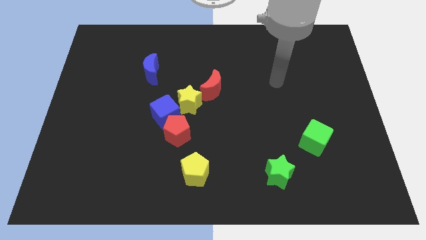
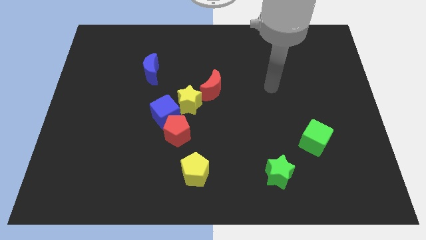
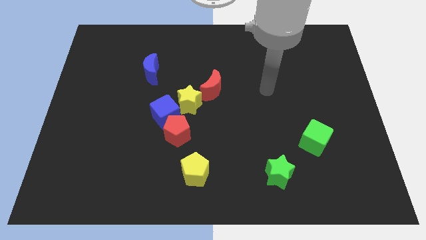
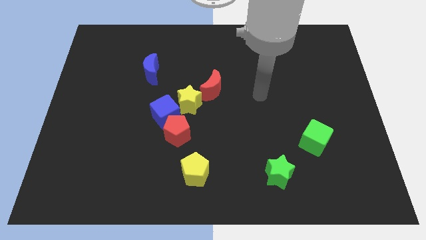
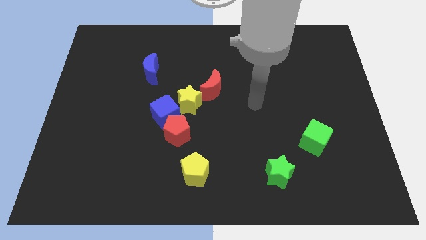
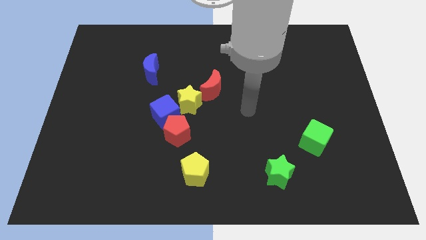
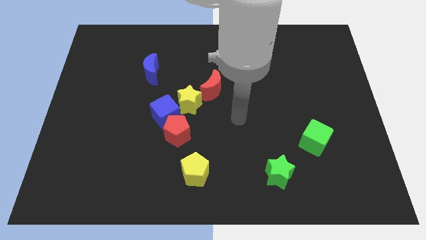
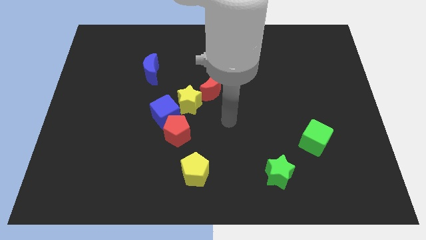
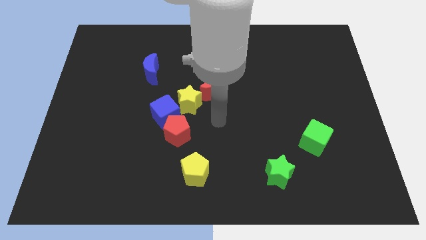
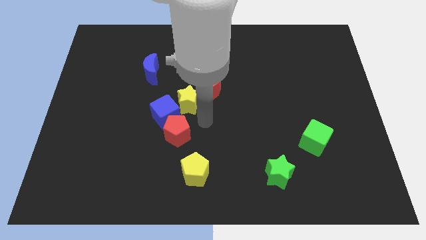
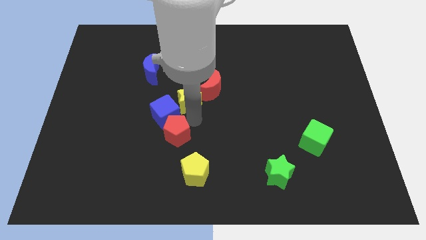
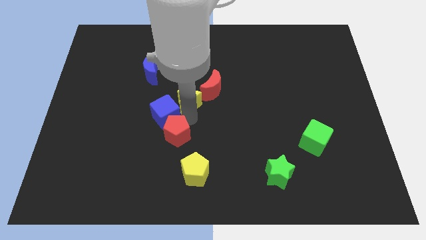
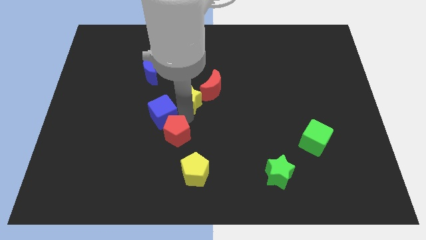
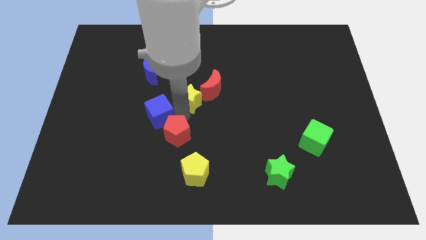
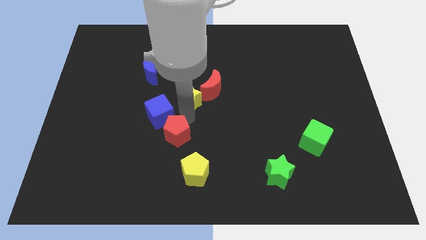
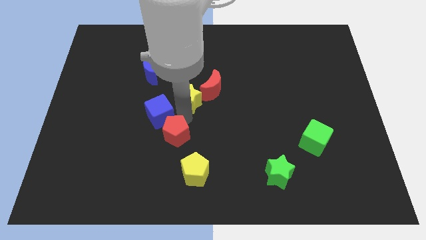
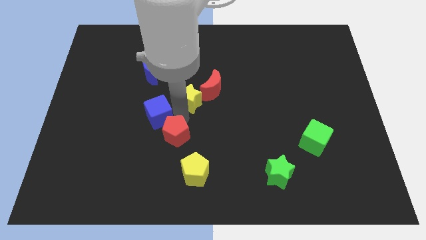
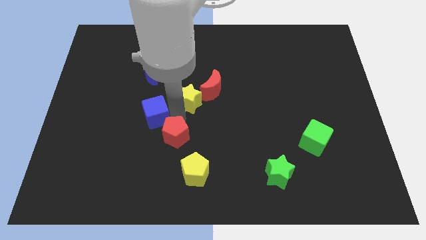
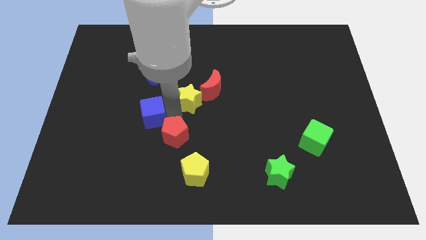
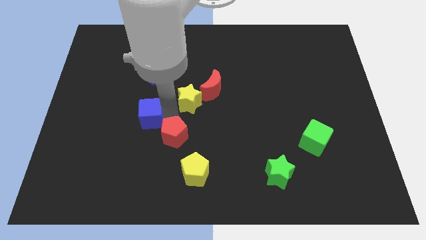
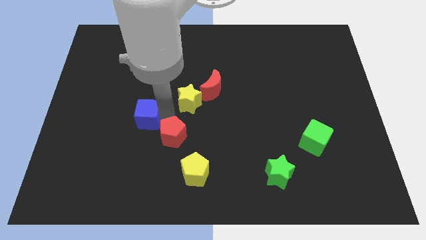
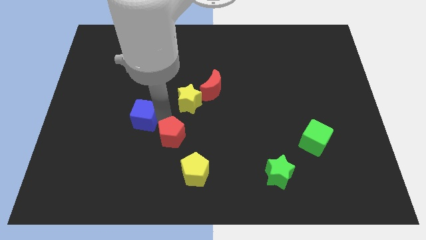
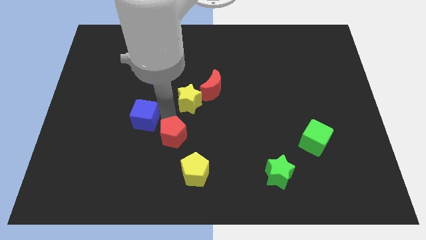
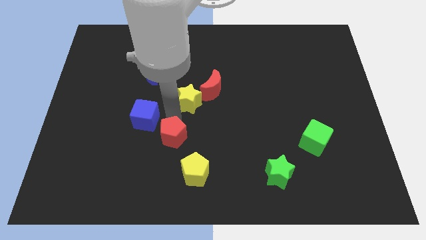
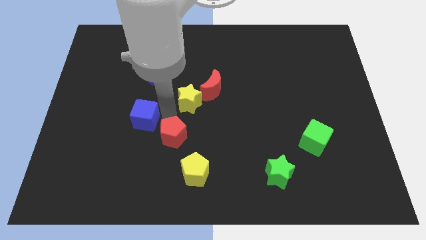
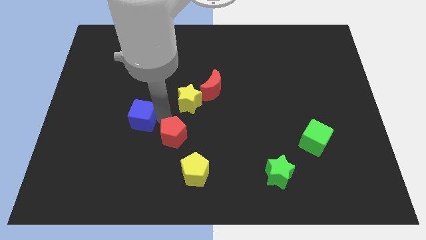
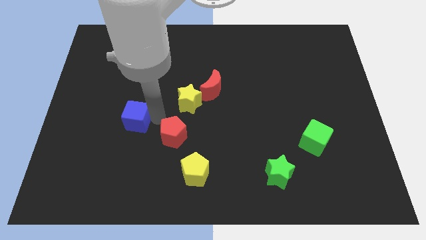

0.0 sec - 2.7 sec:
move the blue cube away from the red pentagon and yellow star

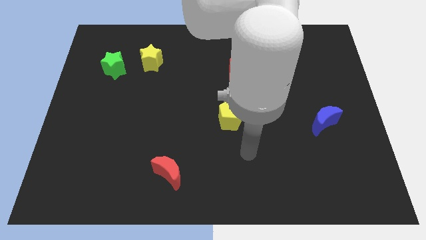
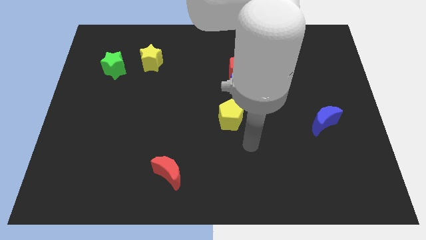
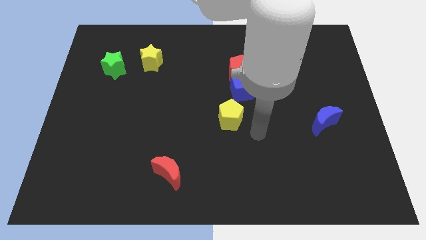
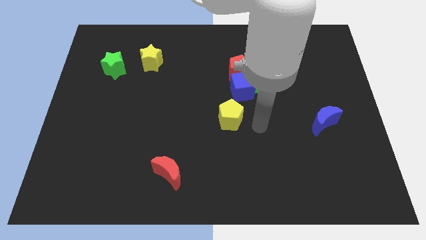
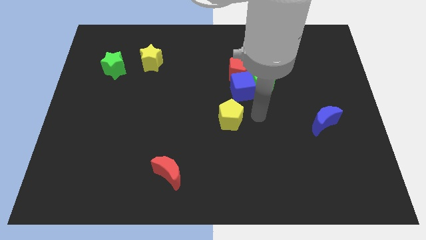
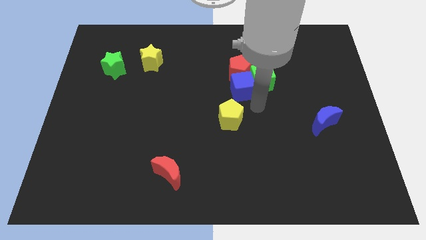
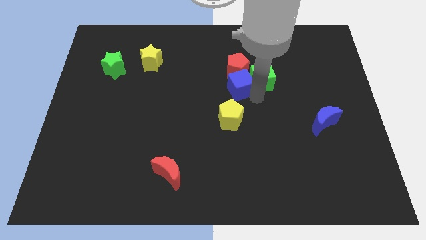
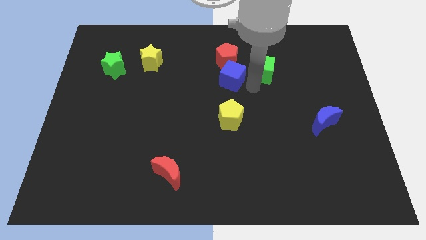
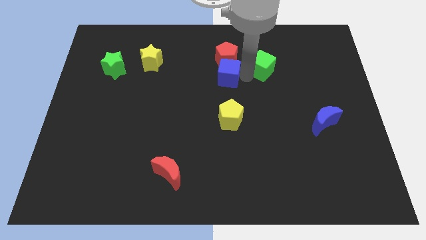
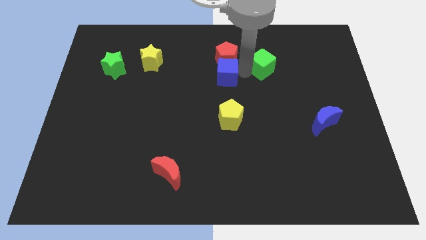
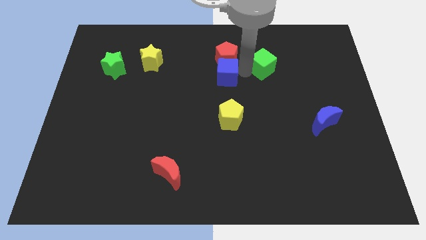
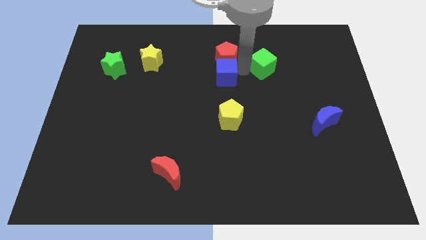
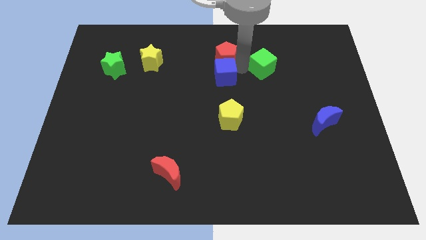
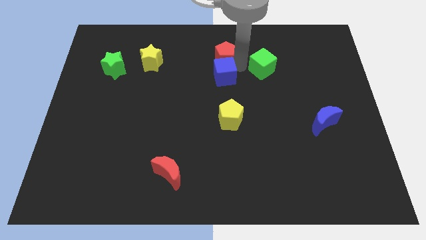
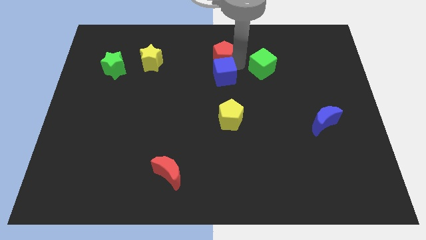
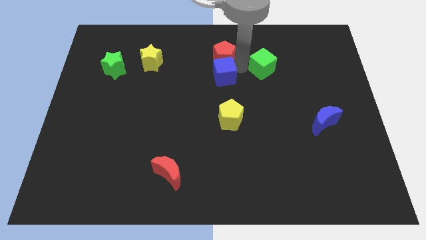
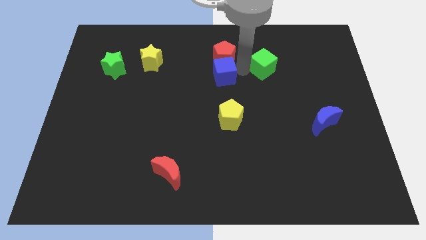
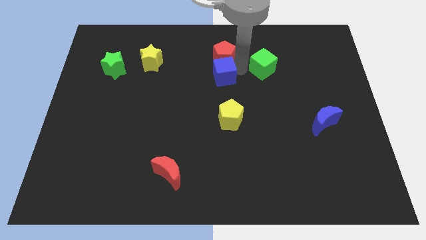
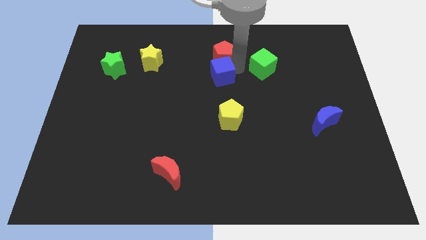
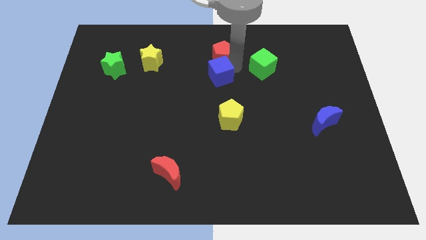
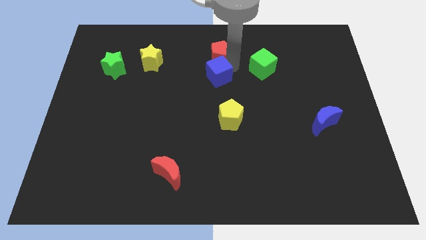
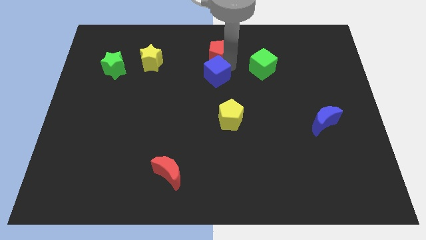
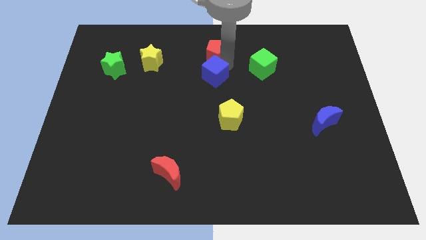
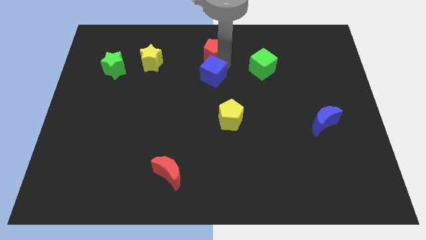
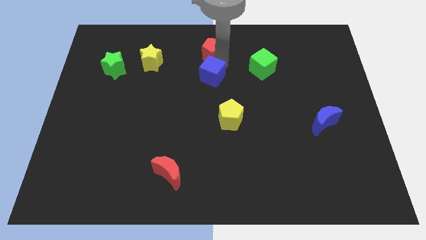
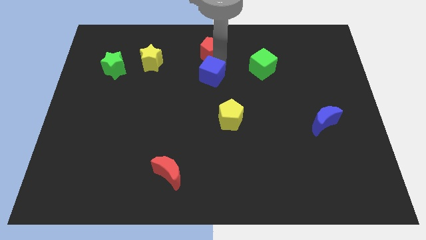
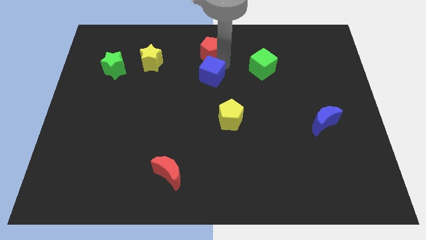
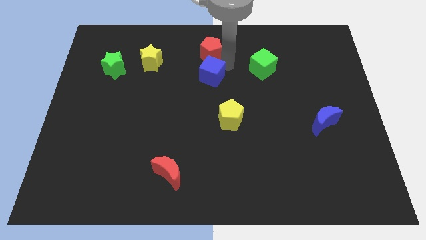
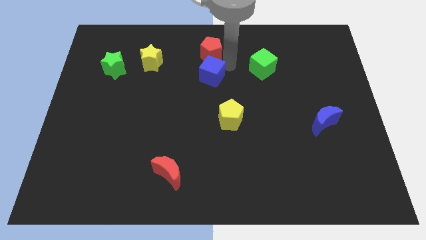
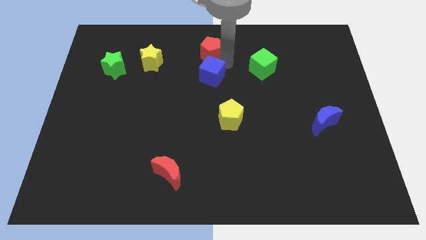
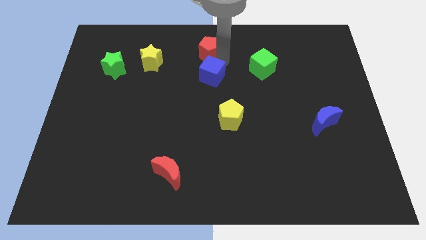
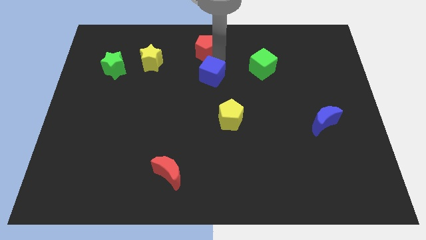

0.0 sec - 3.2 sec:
move the red pentagon away from the blue cube and green cube

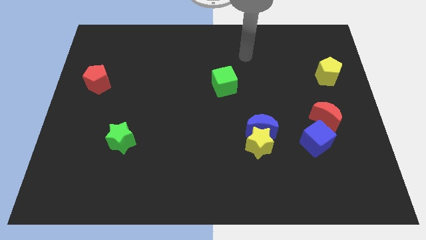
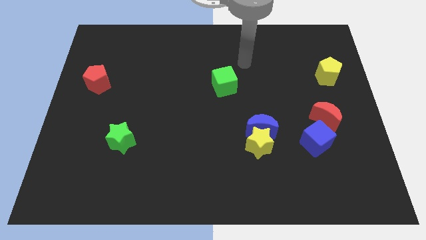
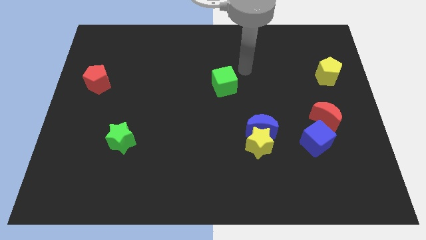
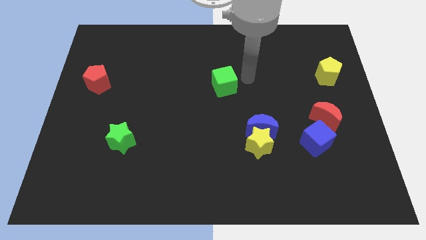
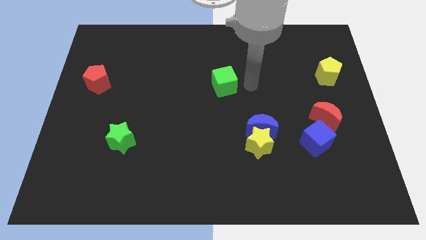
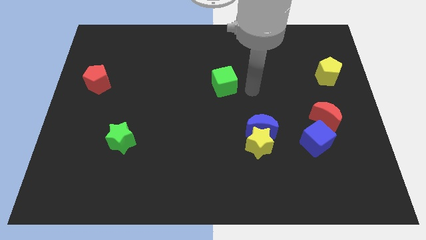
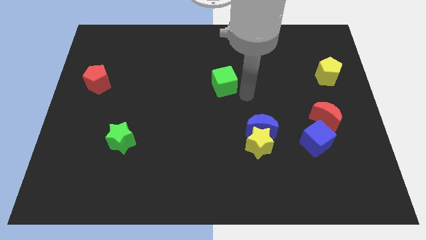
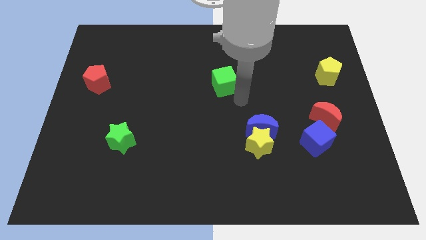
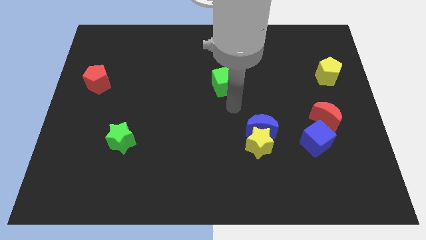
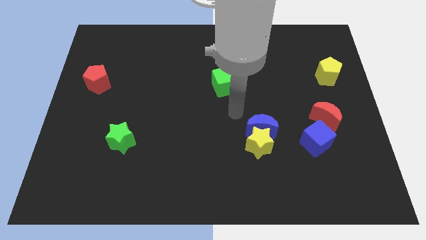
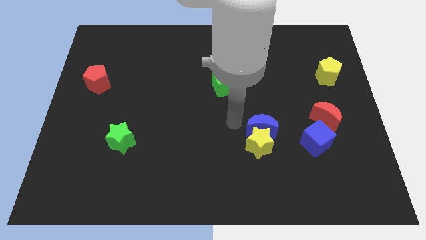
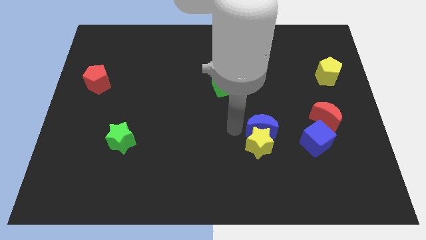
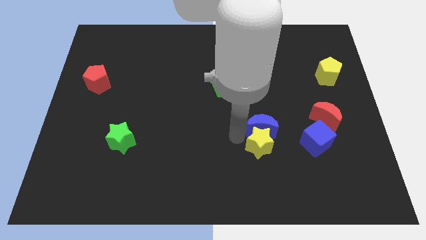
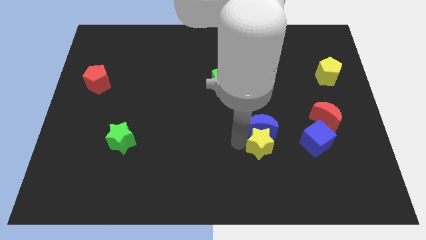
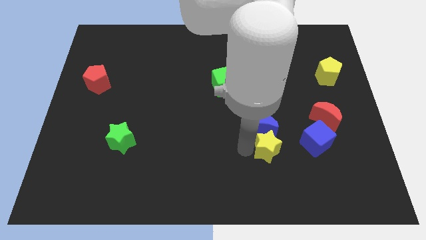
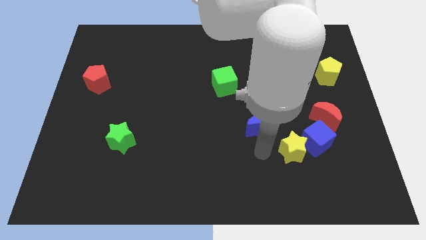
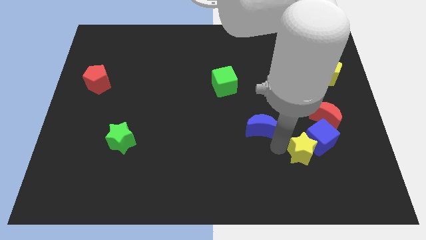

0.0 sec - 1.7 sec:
pull the blue moon apart from the yellow star

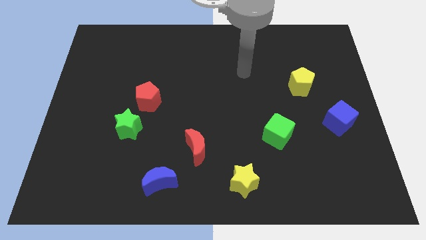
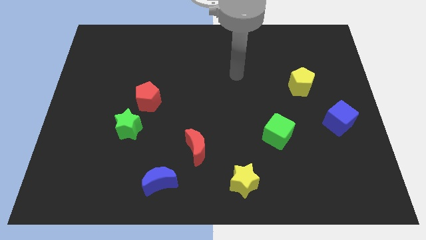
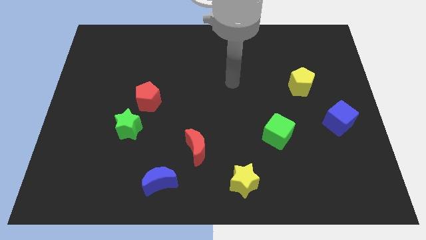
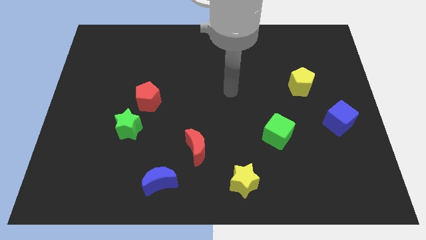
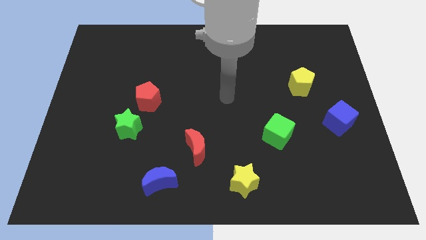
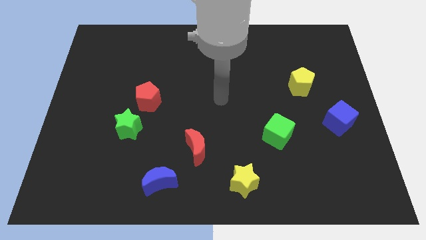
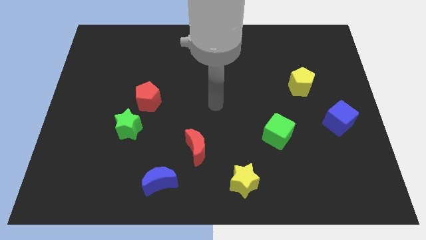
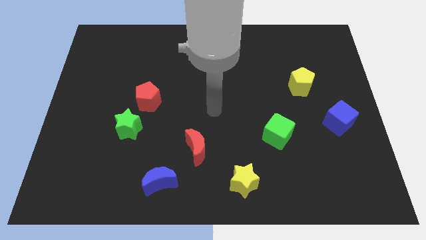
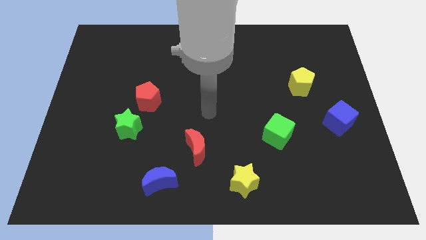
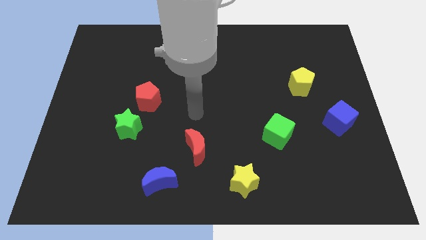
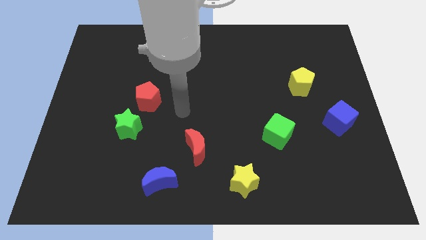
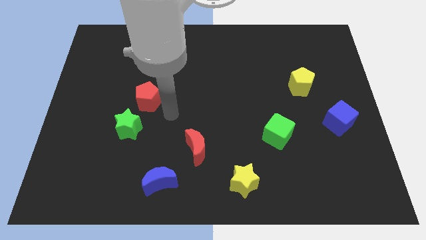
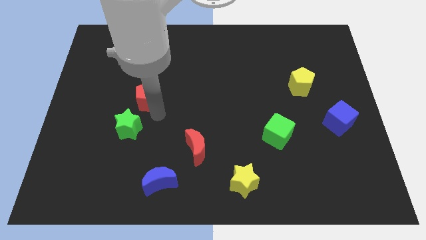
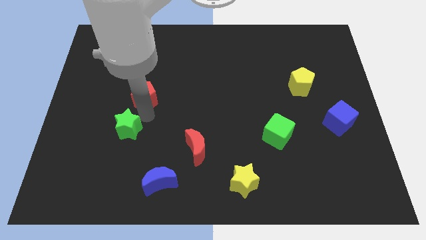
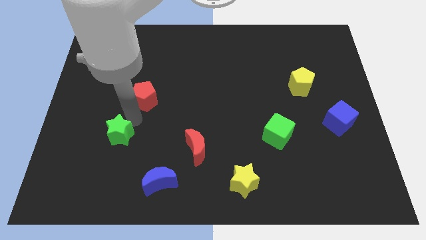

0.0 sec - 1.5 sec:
pull the red pentagon apart from the green star

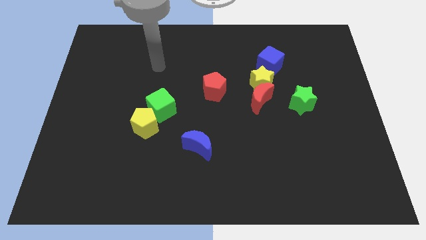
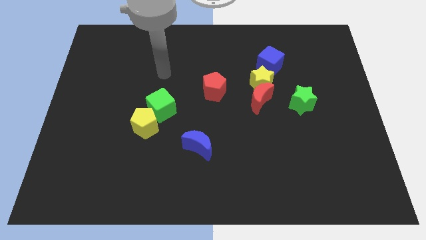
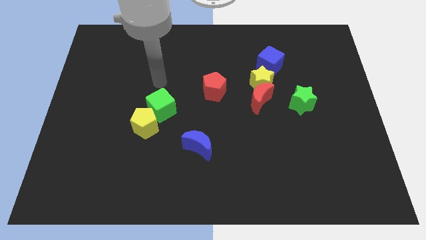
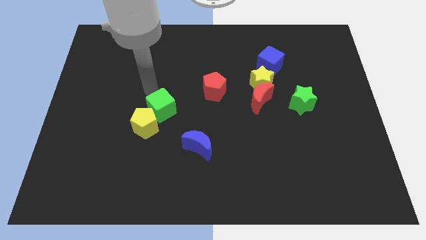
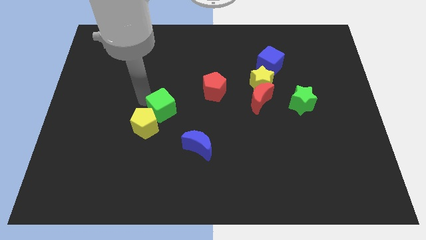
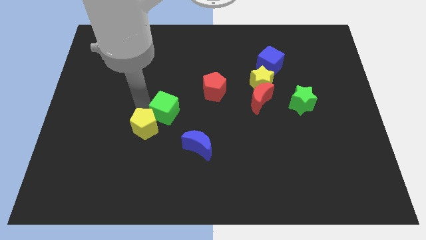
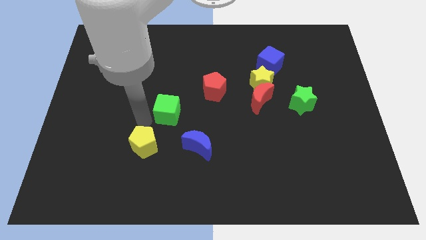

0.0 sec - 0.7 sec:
separate the green cube from the yellow pentagon
